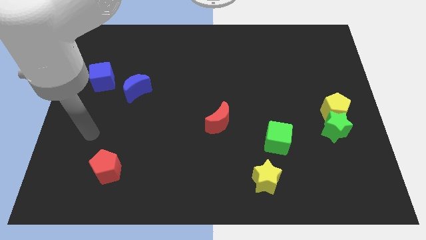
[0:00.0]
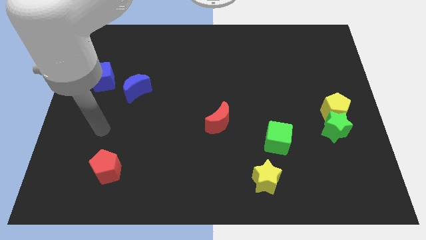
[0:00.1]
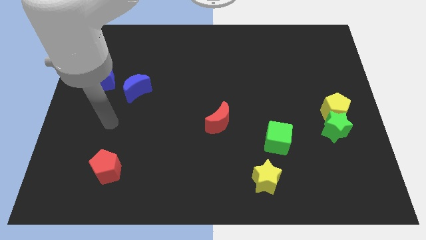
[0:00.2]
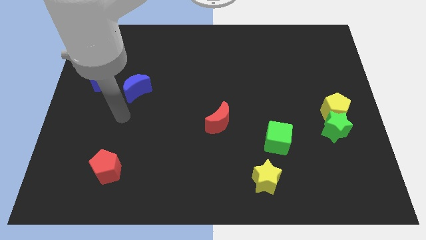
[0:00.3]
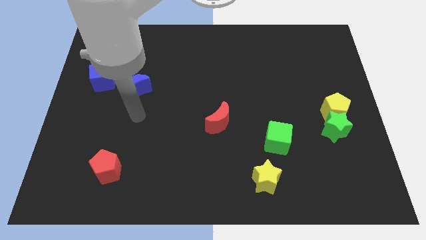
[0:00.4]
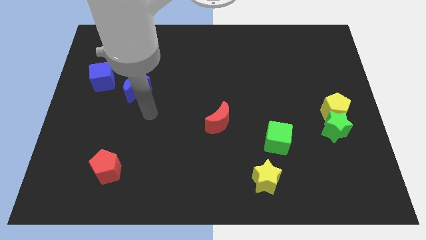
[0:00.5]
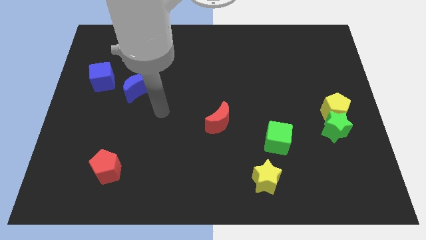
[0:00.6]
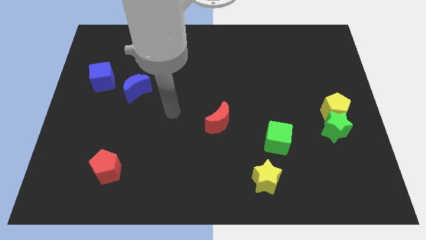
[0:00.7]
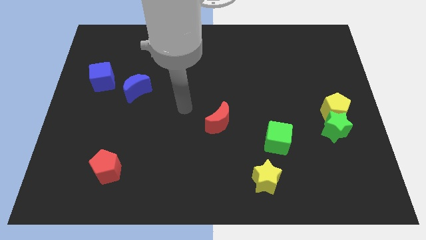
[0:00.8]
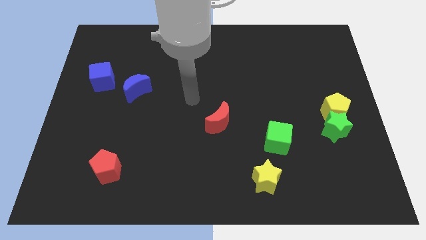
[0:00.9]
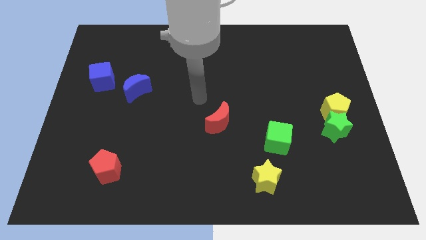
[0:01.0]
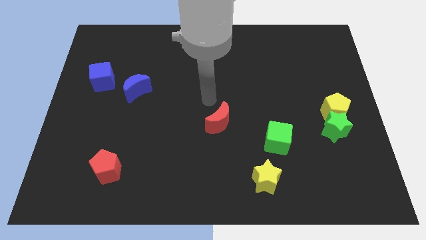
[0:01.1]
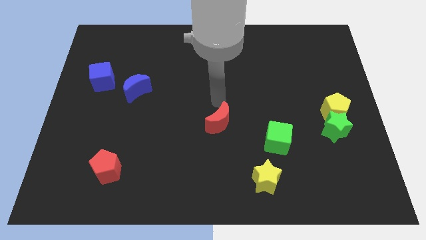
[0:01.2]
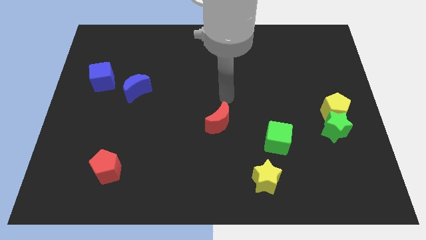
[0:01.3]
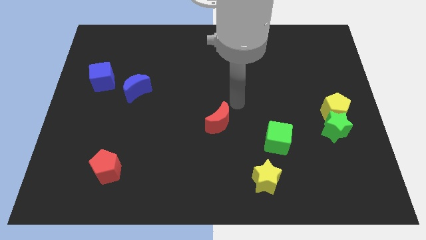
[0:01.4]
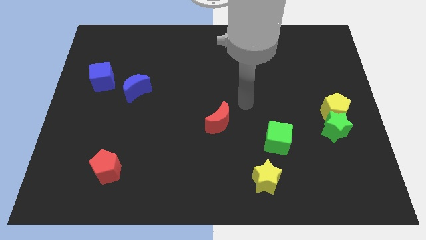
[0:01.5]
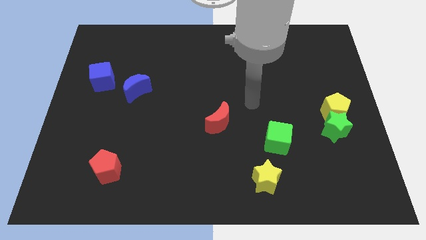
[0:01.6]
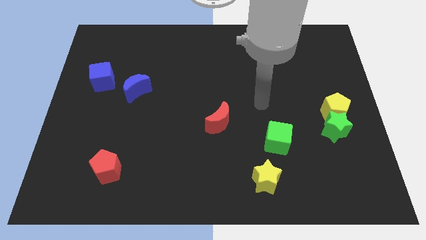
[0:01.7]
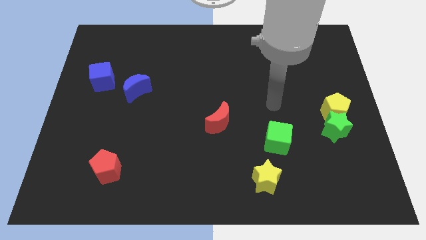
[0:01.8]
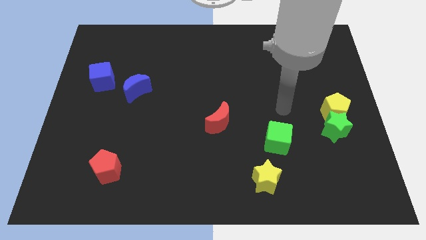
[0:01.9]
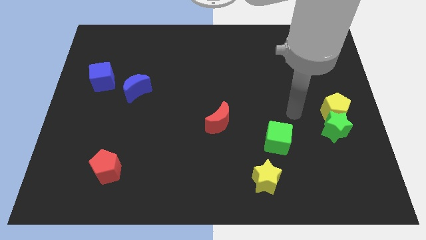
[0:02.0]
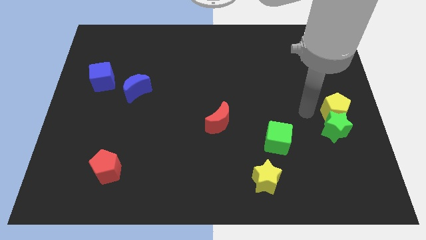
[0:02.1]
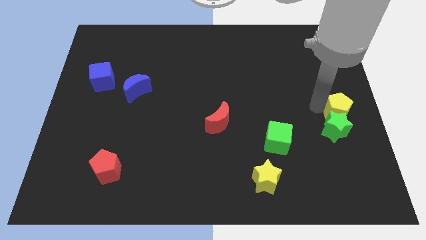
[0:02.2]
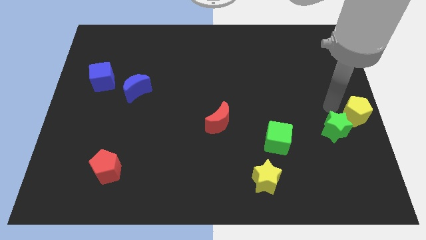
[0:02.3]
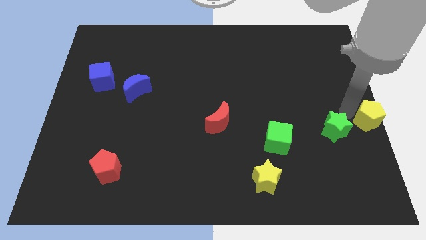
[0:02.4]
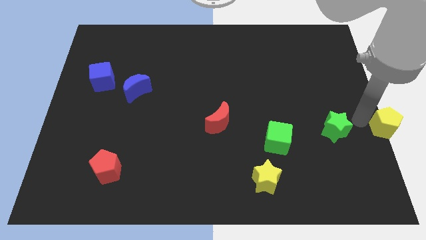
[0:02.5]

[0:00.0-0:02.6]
move the green star away from the yellow pentagon

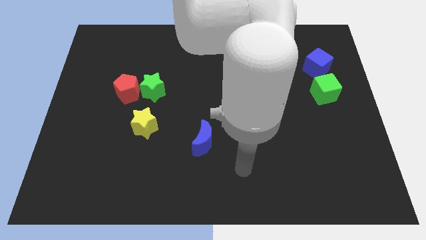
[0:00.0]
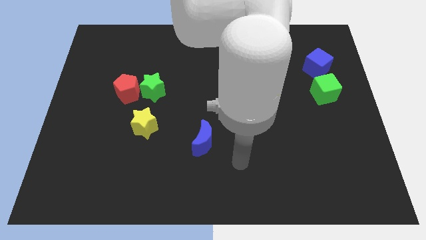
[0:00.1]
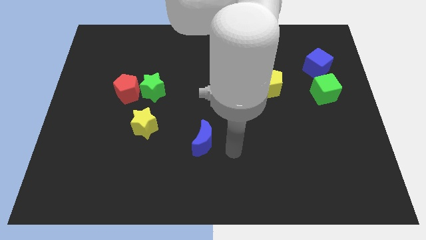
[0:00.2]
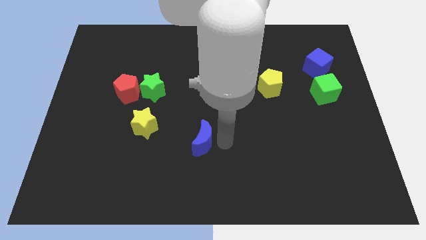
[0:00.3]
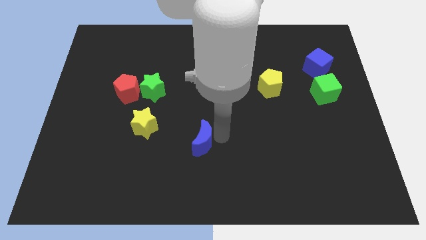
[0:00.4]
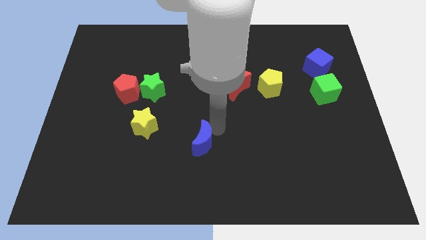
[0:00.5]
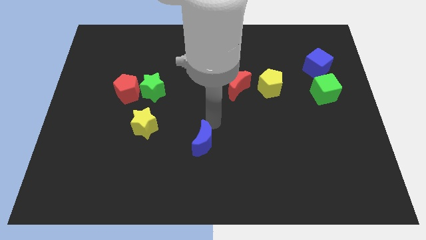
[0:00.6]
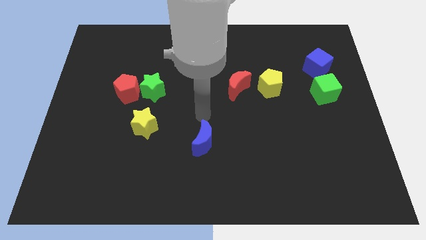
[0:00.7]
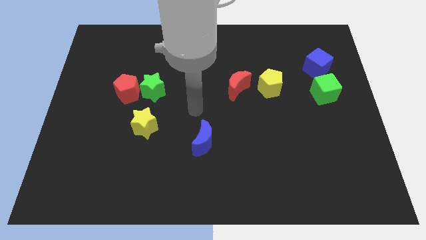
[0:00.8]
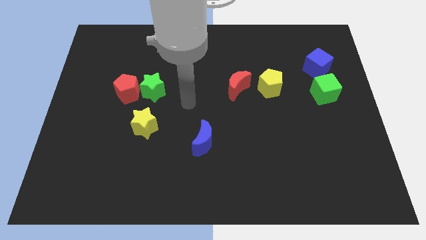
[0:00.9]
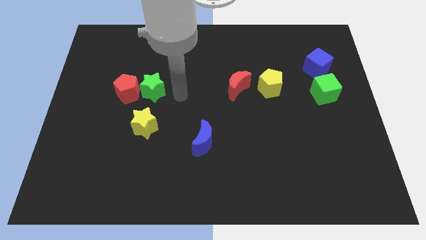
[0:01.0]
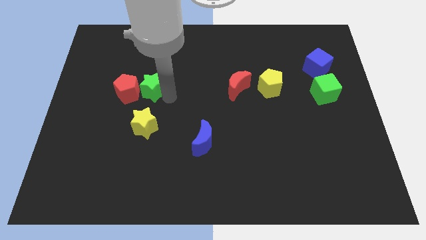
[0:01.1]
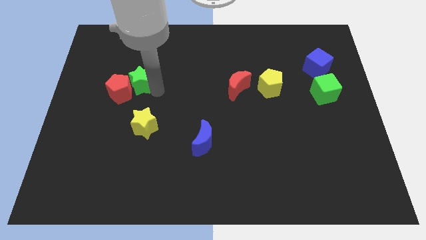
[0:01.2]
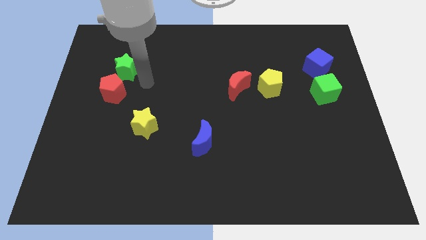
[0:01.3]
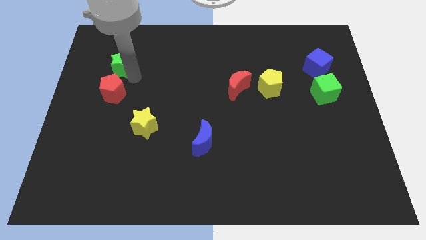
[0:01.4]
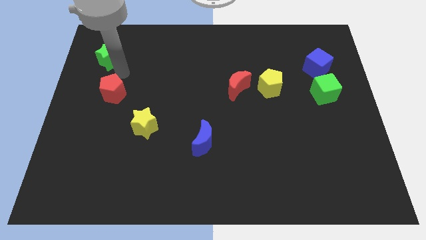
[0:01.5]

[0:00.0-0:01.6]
move the red pentagon away from the green star

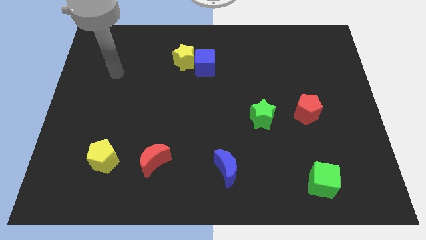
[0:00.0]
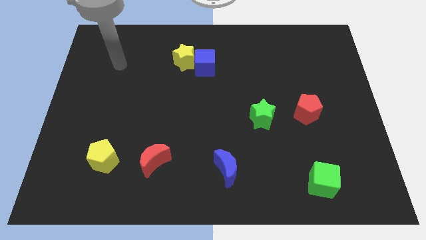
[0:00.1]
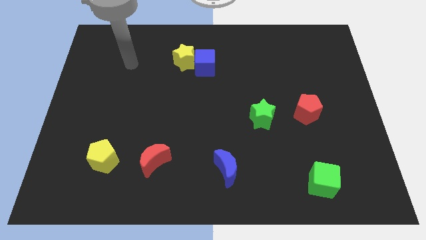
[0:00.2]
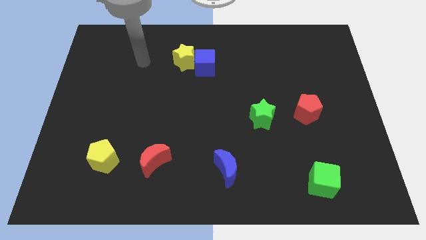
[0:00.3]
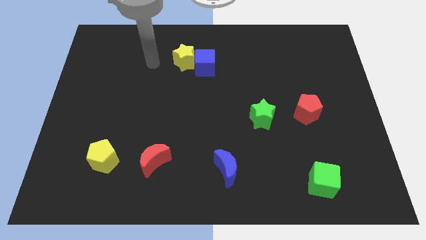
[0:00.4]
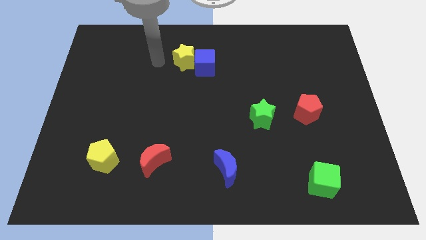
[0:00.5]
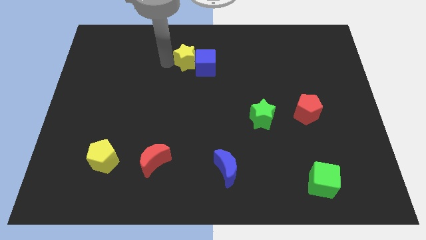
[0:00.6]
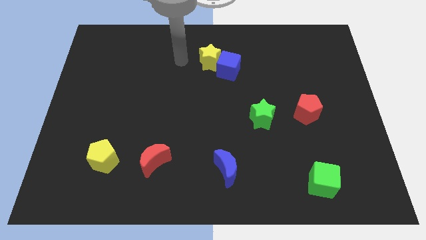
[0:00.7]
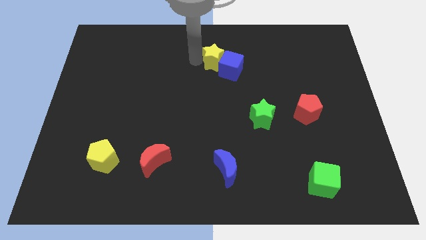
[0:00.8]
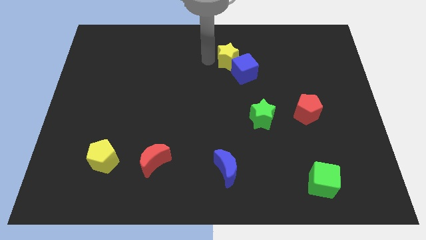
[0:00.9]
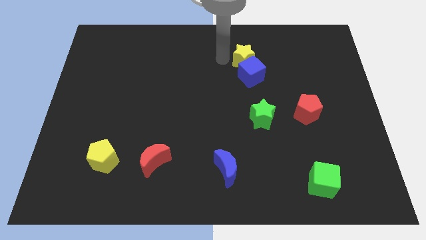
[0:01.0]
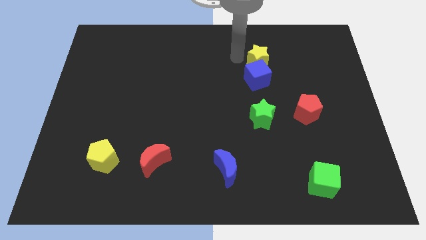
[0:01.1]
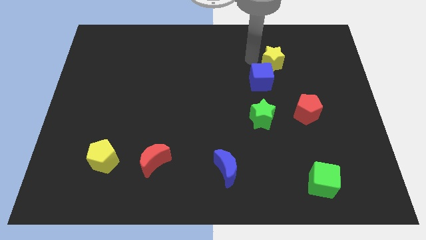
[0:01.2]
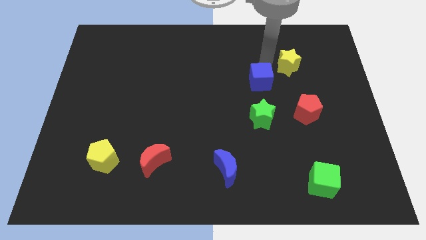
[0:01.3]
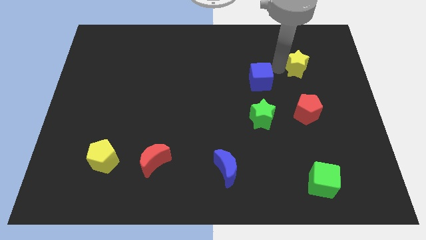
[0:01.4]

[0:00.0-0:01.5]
move the blue cube away from the yellow star

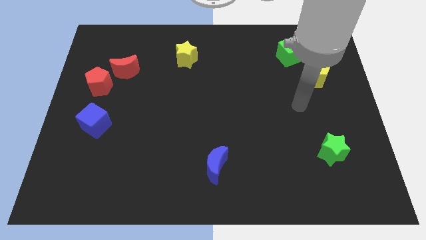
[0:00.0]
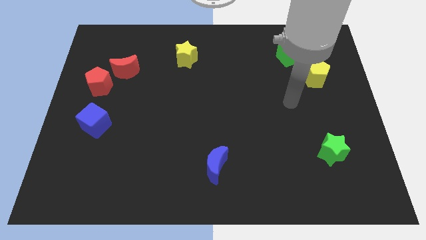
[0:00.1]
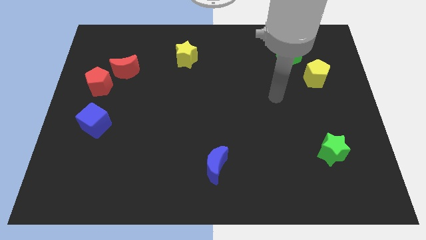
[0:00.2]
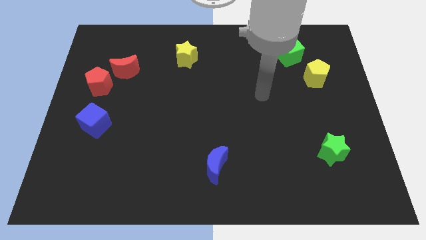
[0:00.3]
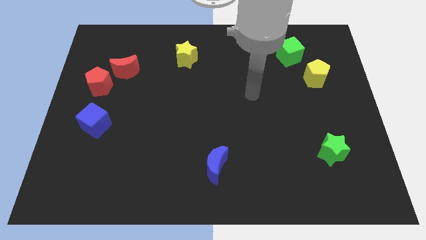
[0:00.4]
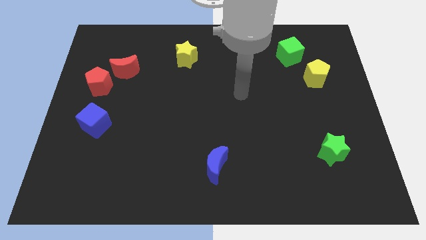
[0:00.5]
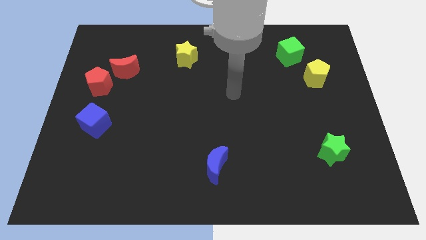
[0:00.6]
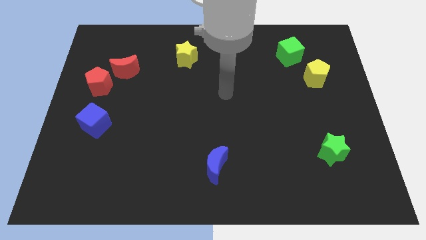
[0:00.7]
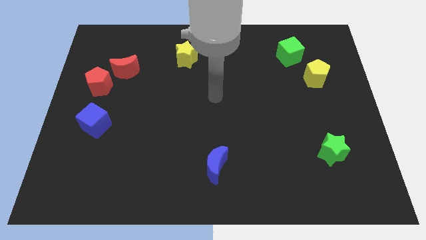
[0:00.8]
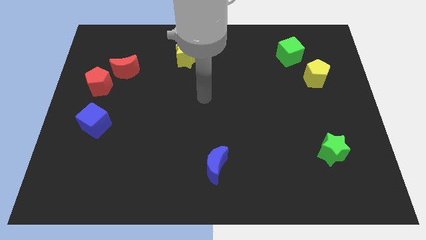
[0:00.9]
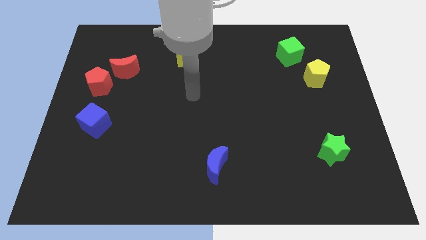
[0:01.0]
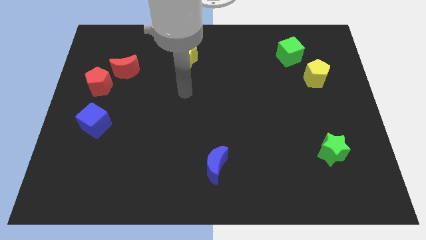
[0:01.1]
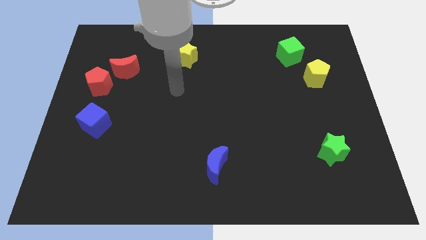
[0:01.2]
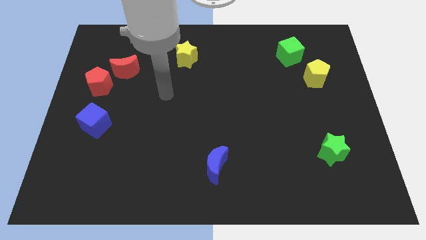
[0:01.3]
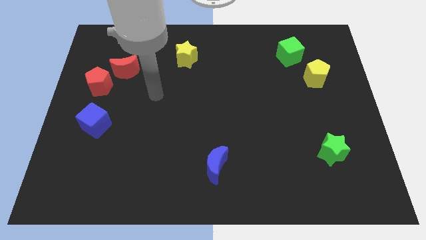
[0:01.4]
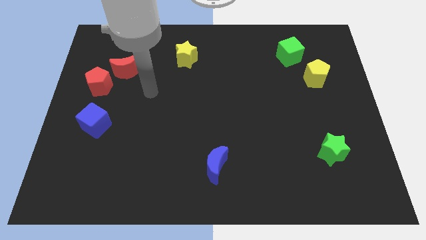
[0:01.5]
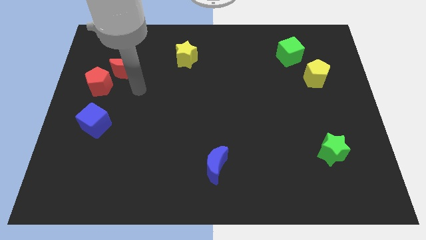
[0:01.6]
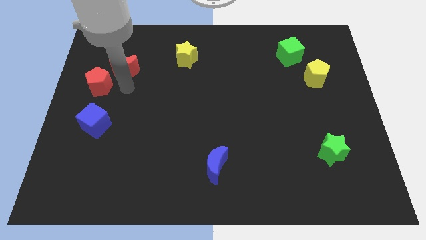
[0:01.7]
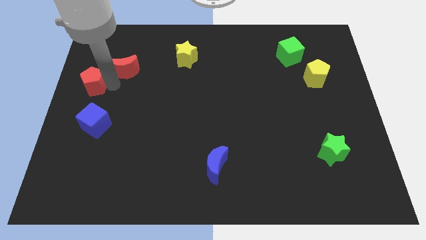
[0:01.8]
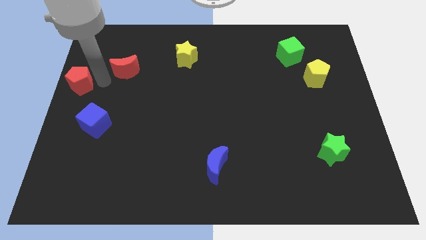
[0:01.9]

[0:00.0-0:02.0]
pull the red moon apart from the red pentagon

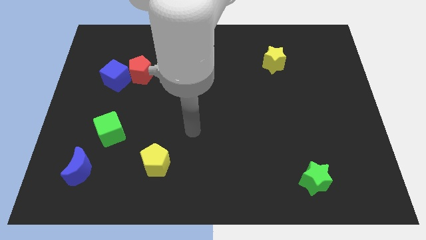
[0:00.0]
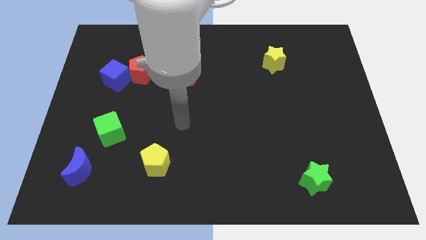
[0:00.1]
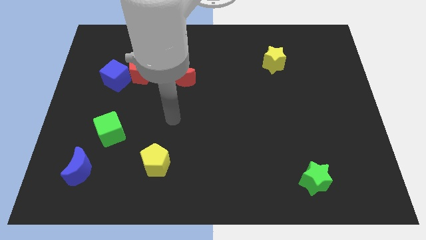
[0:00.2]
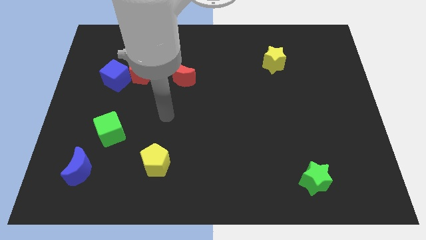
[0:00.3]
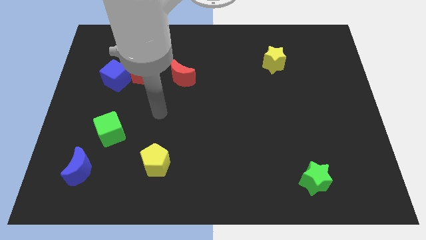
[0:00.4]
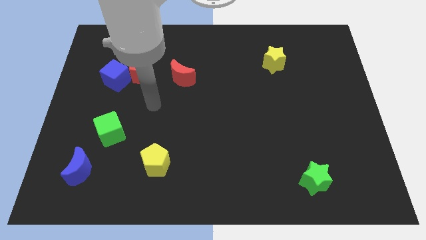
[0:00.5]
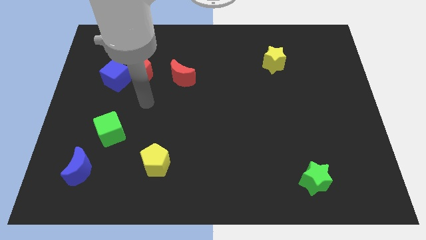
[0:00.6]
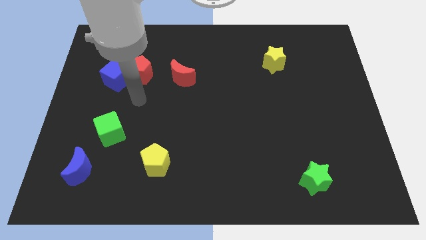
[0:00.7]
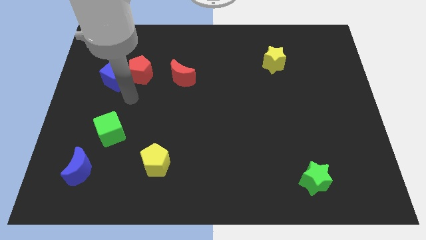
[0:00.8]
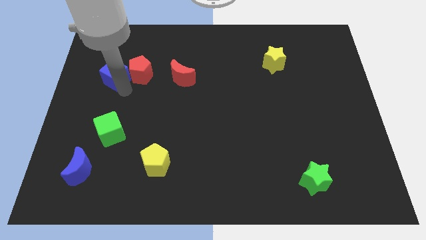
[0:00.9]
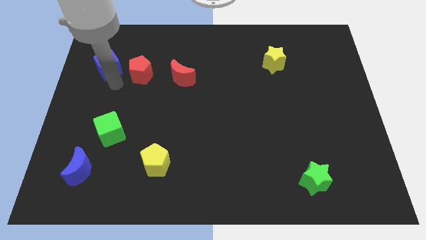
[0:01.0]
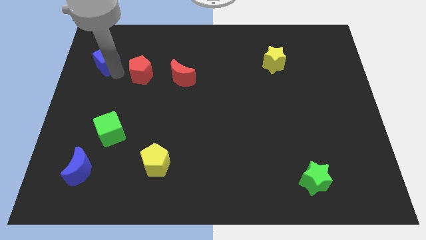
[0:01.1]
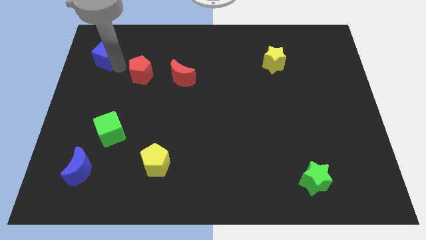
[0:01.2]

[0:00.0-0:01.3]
move the red pentagon away from the blue cube

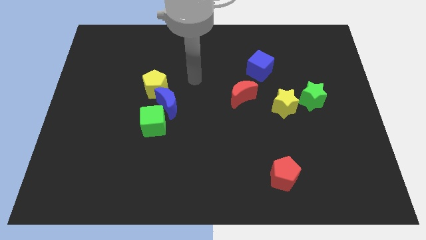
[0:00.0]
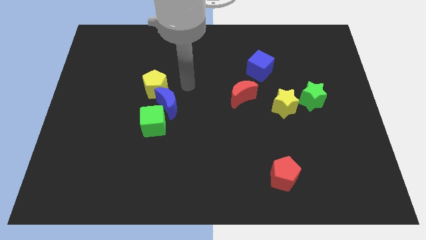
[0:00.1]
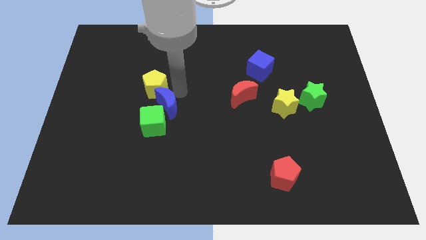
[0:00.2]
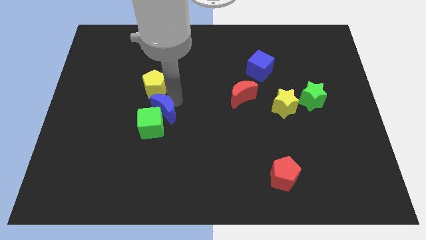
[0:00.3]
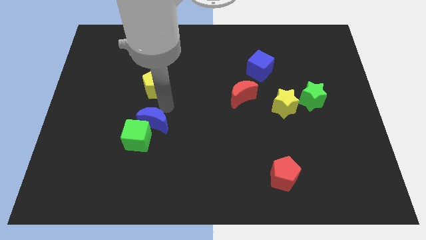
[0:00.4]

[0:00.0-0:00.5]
move the yellow pentagon away from the blue moon
